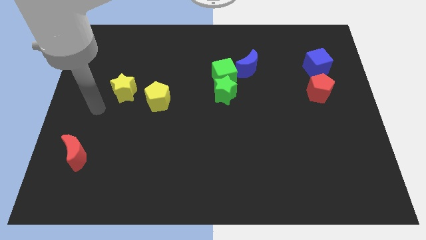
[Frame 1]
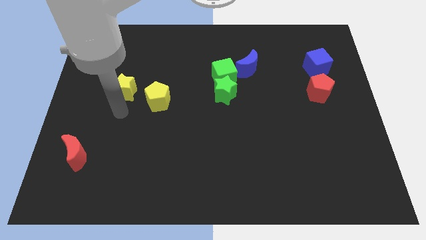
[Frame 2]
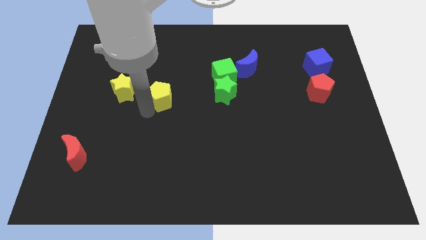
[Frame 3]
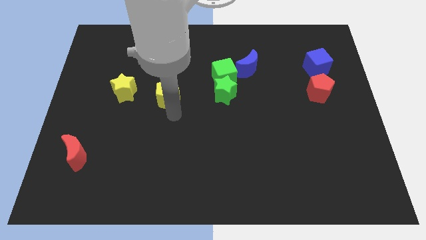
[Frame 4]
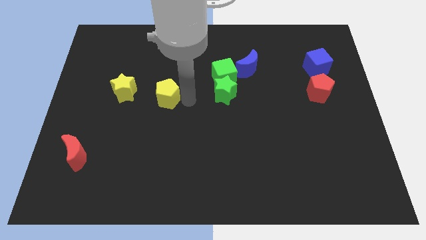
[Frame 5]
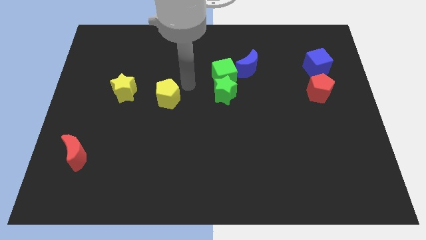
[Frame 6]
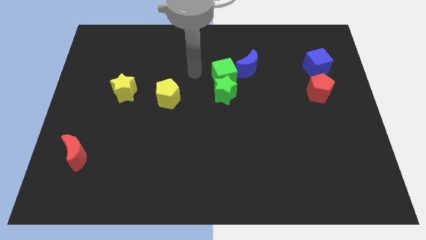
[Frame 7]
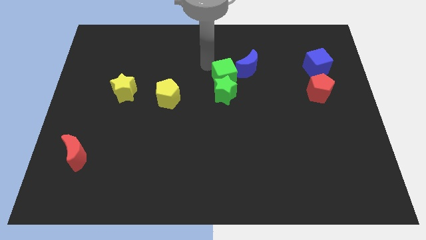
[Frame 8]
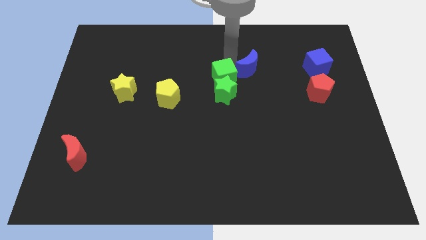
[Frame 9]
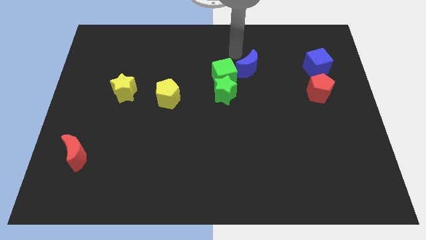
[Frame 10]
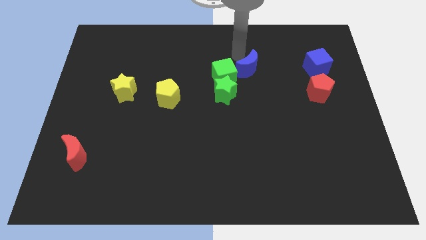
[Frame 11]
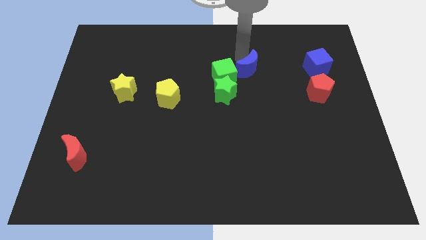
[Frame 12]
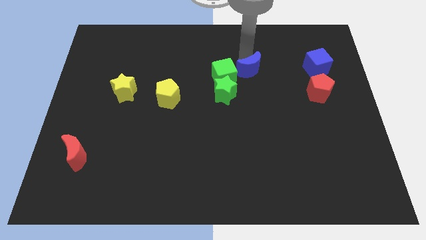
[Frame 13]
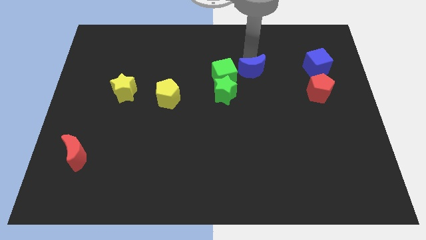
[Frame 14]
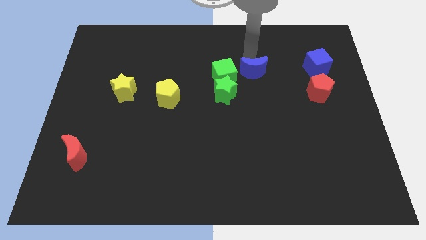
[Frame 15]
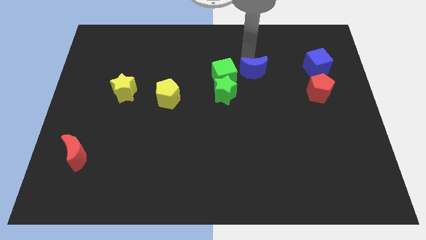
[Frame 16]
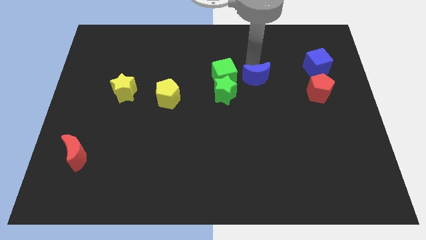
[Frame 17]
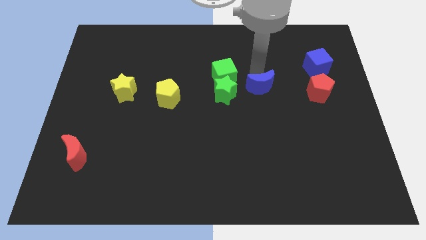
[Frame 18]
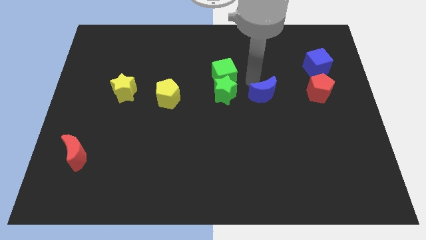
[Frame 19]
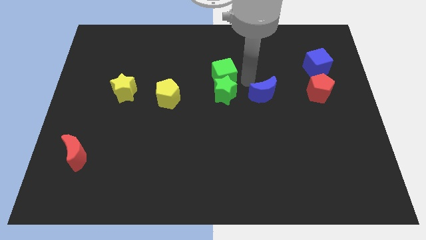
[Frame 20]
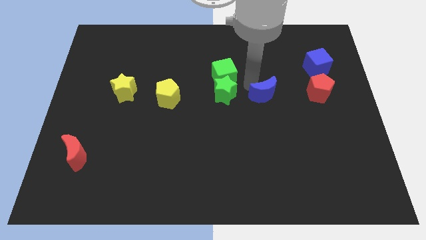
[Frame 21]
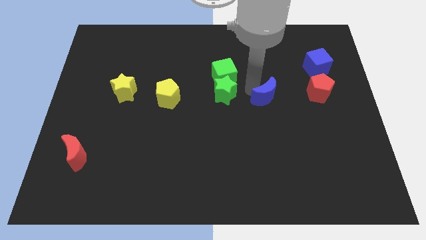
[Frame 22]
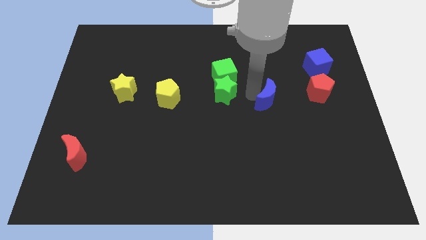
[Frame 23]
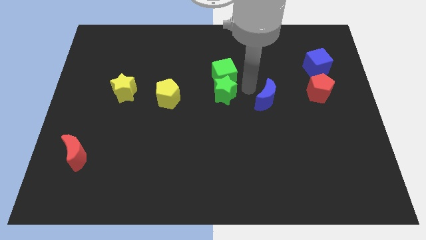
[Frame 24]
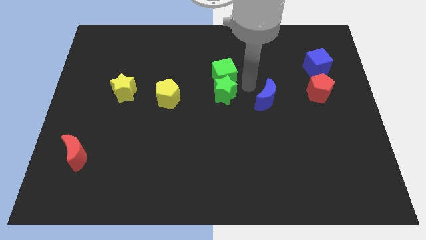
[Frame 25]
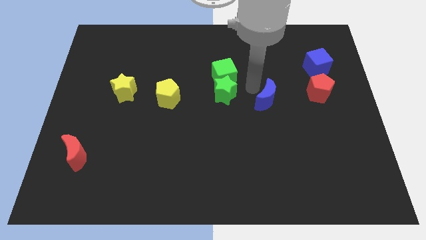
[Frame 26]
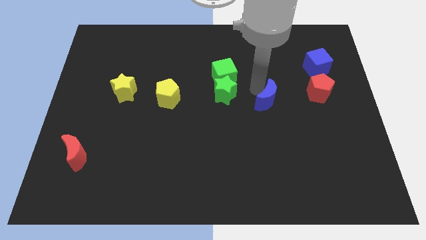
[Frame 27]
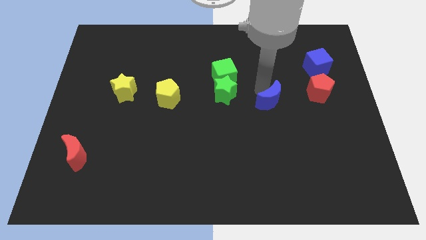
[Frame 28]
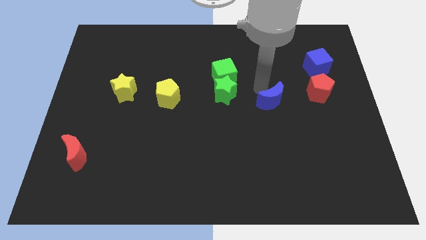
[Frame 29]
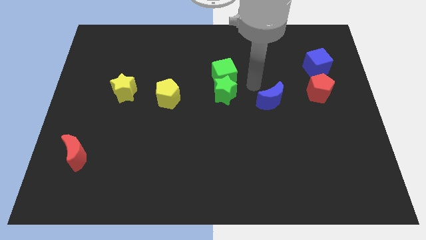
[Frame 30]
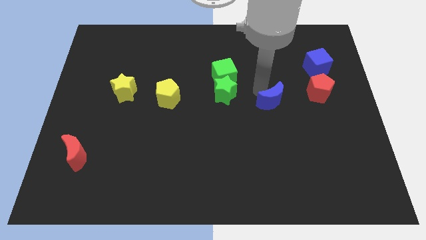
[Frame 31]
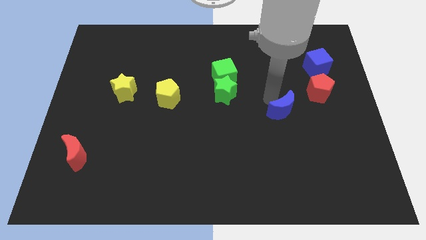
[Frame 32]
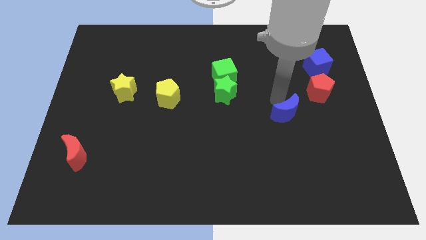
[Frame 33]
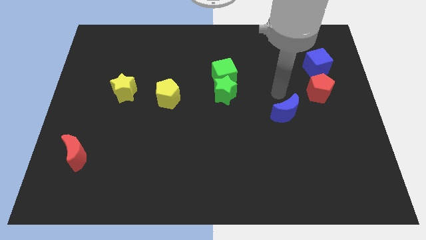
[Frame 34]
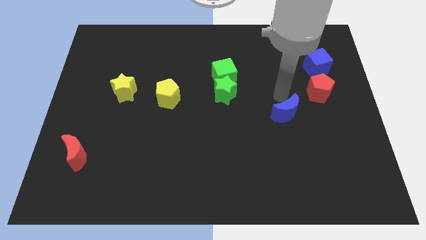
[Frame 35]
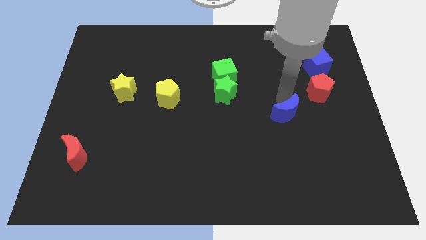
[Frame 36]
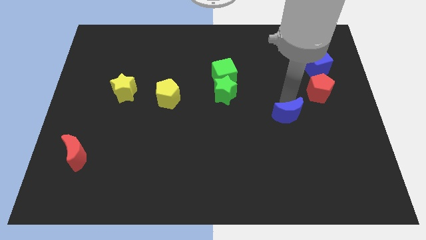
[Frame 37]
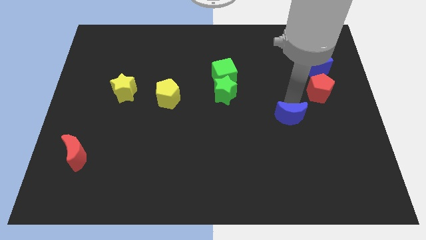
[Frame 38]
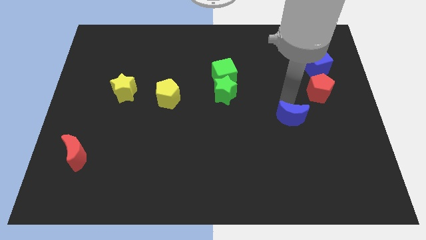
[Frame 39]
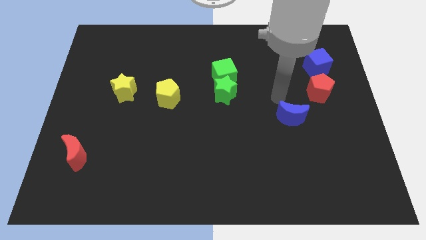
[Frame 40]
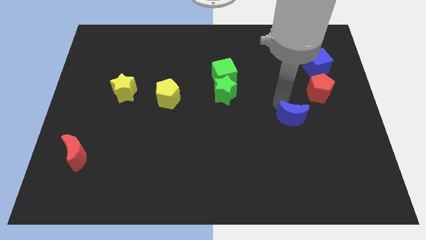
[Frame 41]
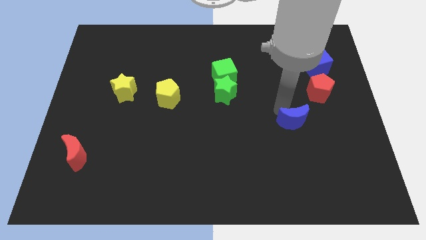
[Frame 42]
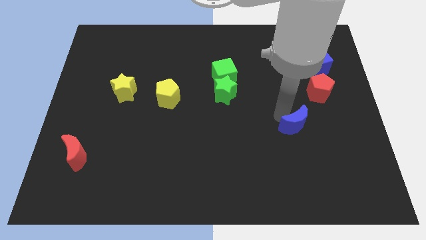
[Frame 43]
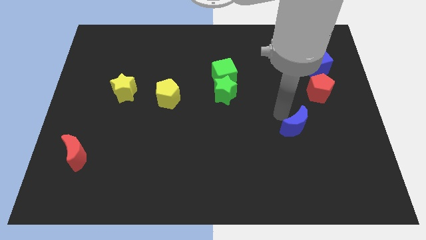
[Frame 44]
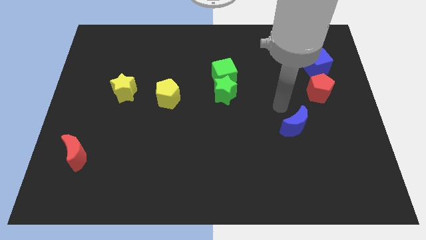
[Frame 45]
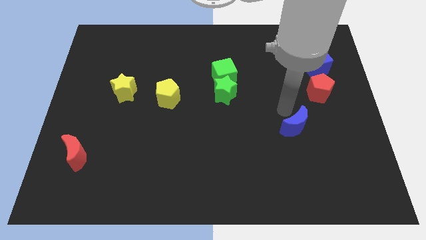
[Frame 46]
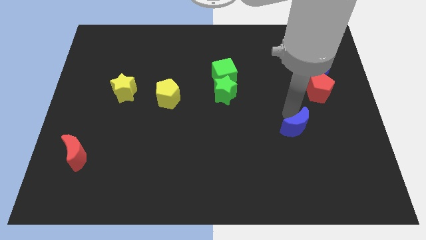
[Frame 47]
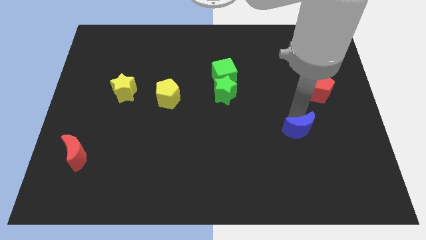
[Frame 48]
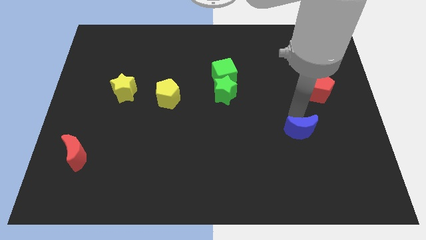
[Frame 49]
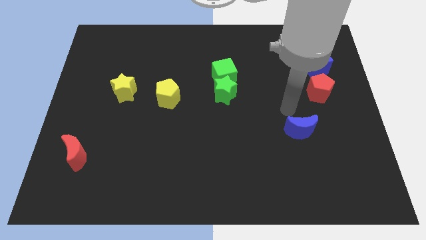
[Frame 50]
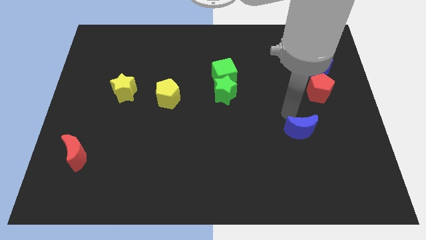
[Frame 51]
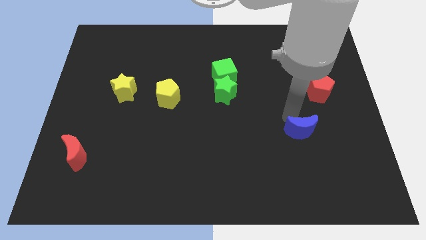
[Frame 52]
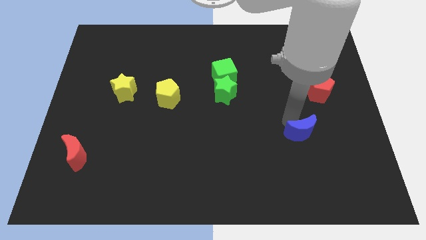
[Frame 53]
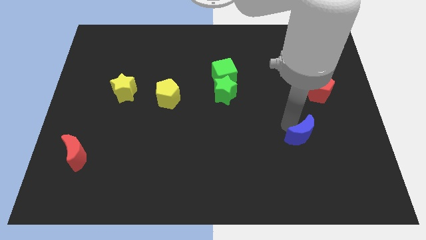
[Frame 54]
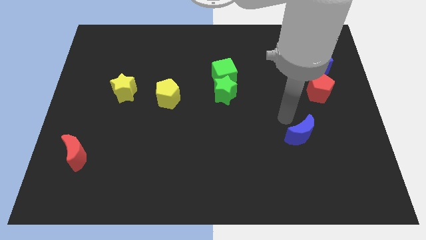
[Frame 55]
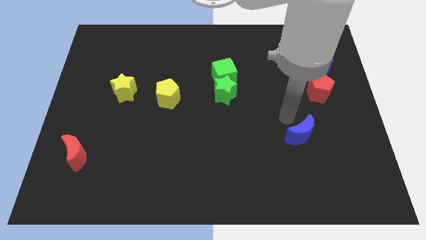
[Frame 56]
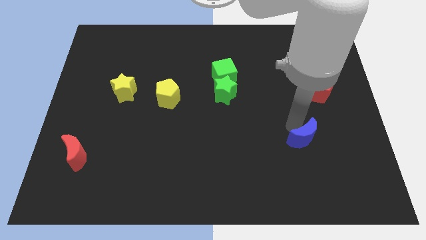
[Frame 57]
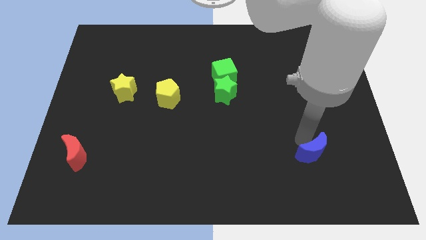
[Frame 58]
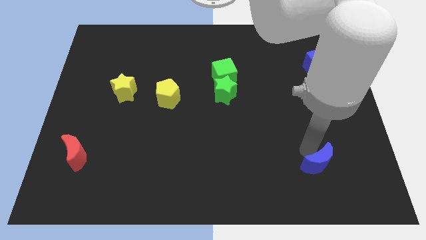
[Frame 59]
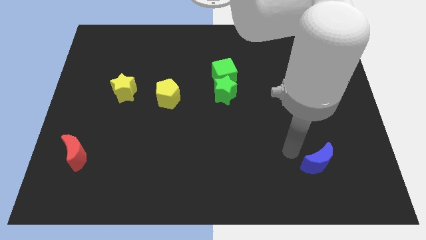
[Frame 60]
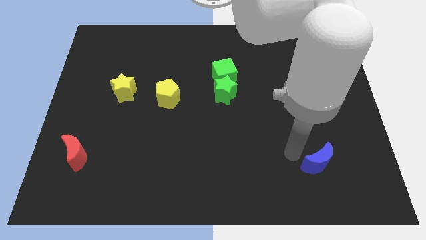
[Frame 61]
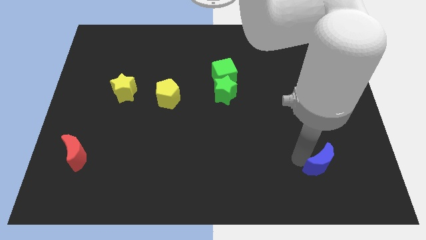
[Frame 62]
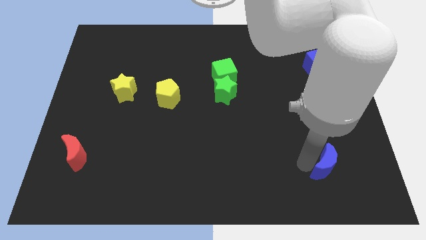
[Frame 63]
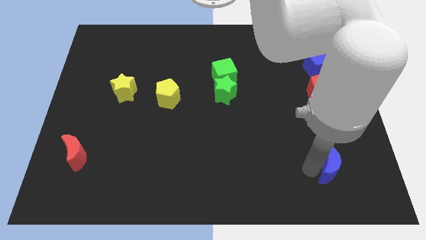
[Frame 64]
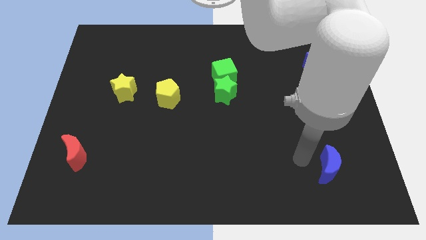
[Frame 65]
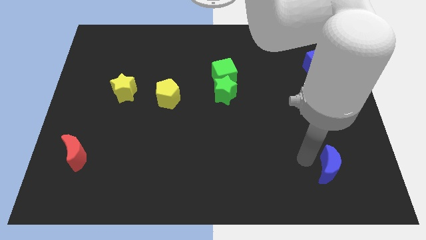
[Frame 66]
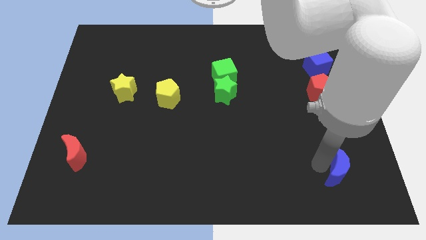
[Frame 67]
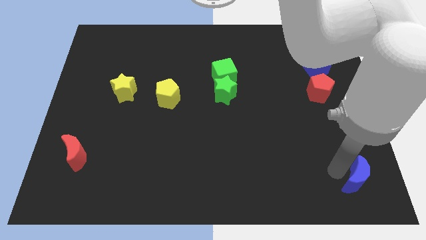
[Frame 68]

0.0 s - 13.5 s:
put the blue moon to the bottom right corner
